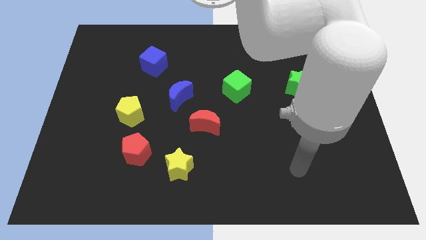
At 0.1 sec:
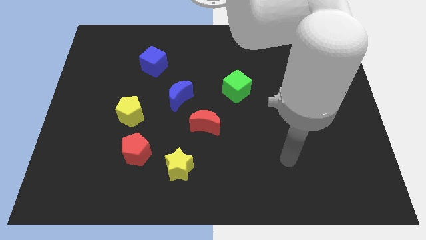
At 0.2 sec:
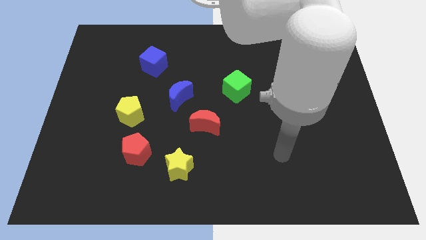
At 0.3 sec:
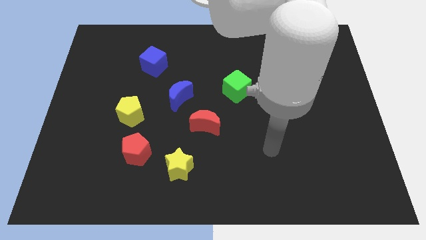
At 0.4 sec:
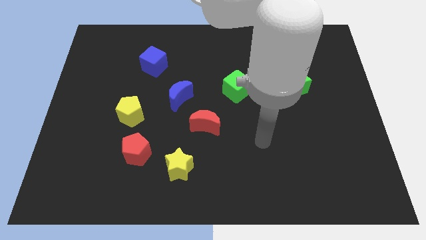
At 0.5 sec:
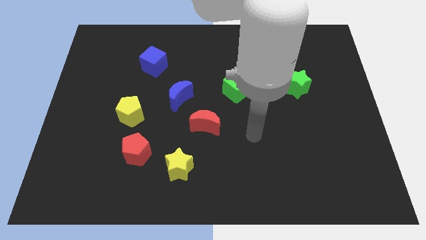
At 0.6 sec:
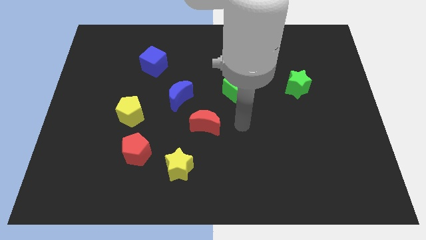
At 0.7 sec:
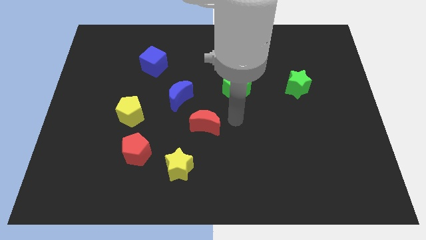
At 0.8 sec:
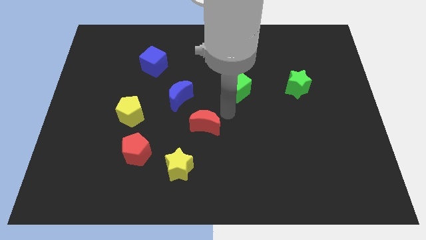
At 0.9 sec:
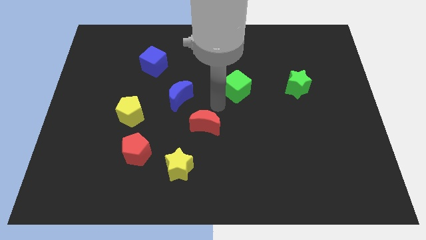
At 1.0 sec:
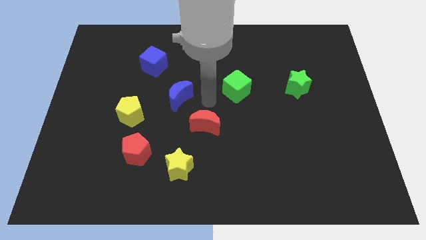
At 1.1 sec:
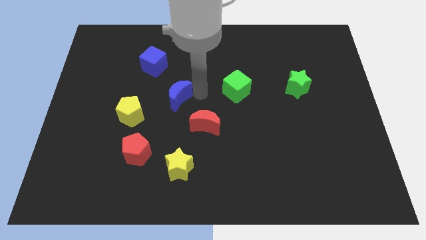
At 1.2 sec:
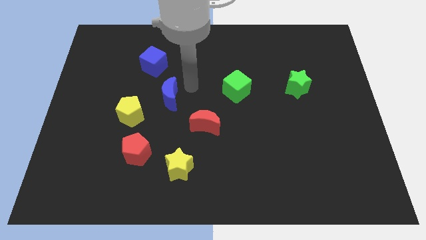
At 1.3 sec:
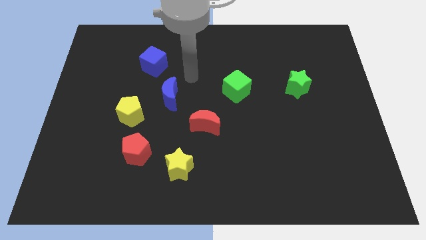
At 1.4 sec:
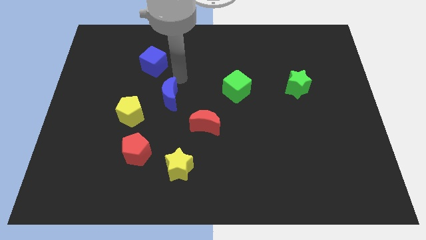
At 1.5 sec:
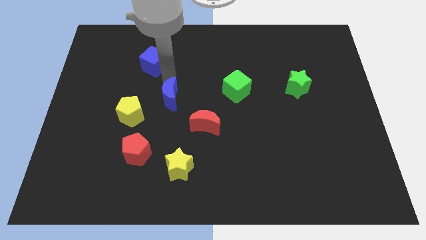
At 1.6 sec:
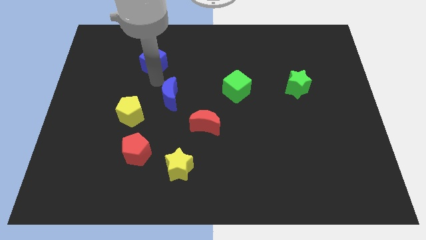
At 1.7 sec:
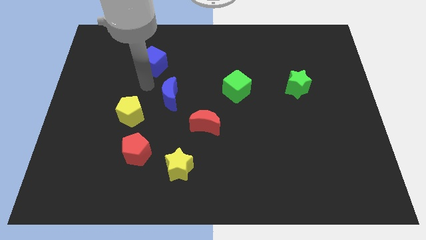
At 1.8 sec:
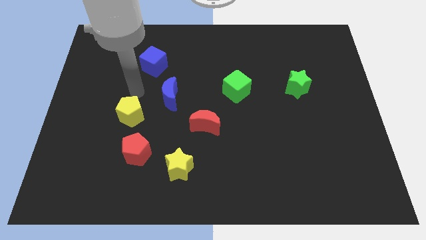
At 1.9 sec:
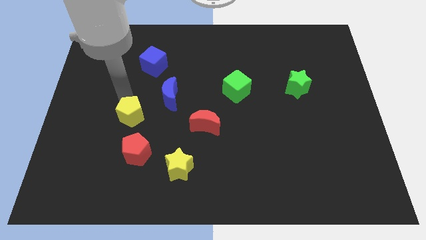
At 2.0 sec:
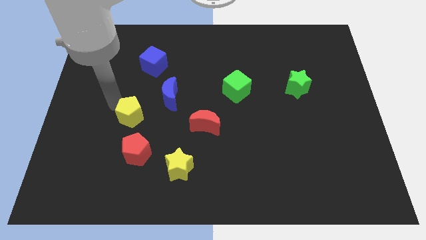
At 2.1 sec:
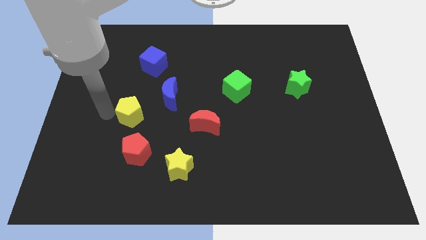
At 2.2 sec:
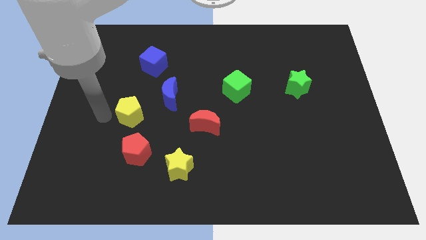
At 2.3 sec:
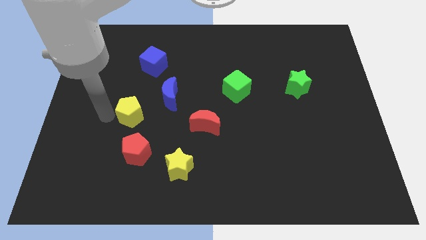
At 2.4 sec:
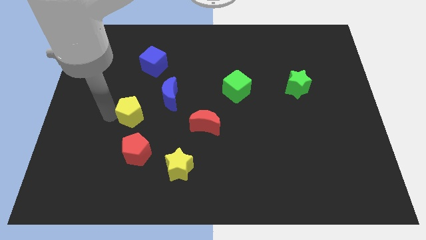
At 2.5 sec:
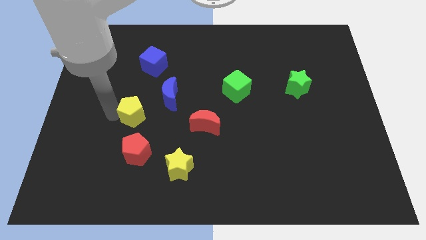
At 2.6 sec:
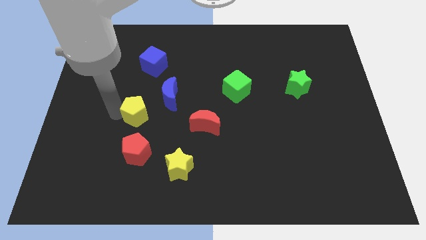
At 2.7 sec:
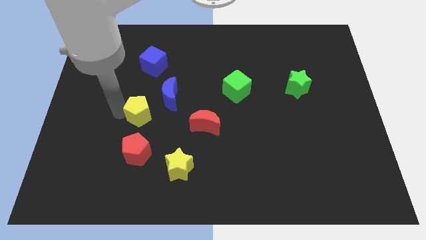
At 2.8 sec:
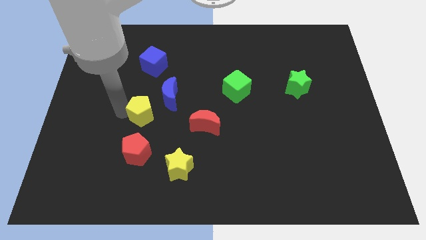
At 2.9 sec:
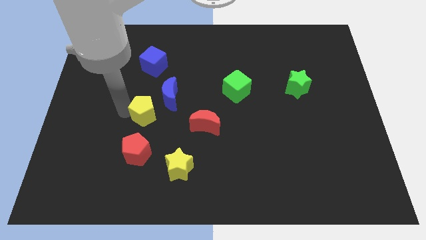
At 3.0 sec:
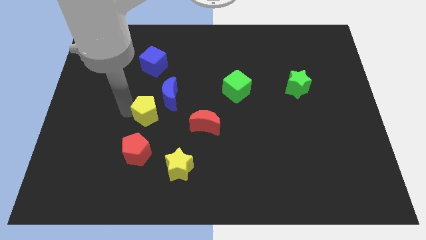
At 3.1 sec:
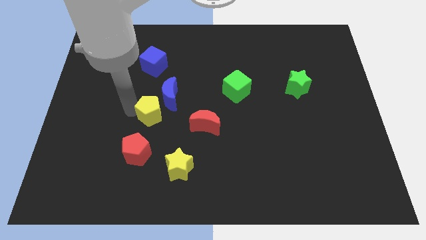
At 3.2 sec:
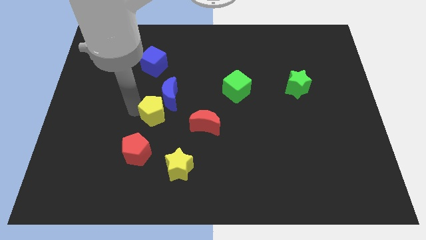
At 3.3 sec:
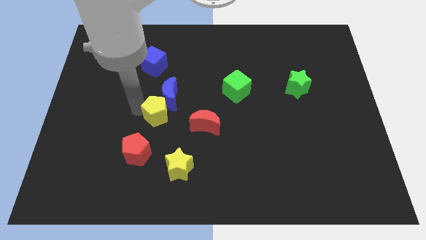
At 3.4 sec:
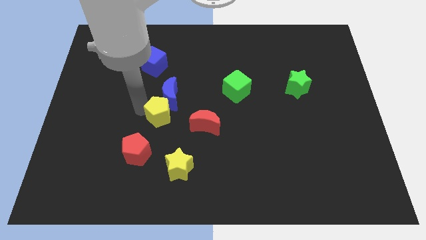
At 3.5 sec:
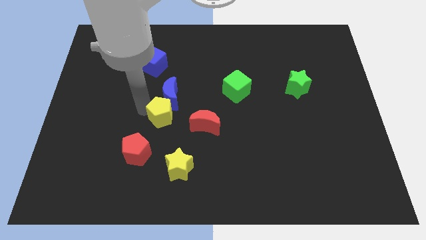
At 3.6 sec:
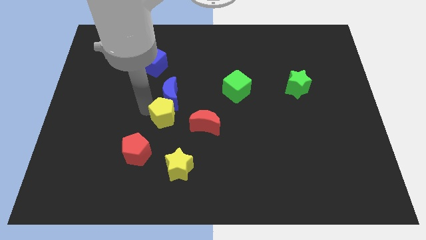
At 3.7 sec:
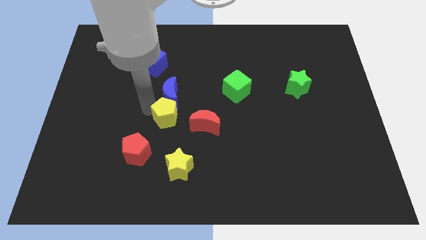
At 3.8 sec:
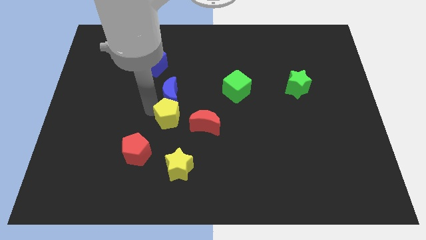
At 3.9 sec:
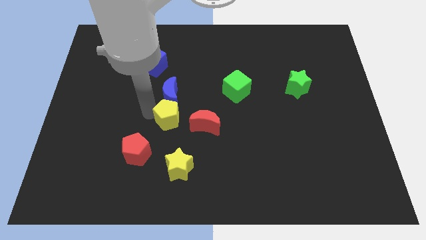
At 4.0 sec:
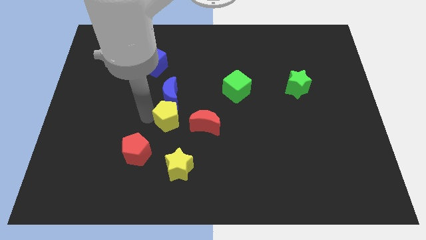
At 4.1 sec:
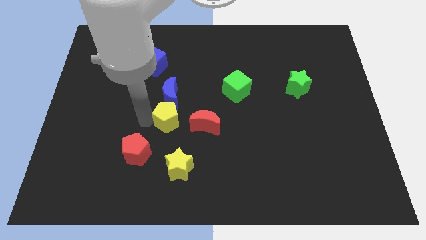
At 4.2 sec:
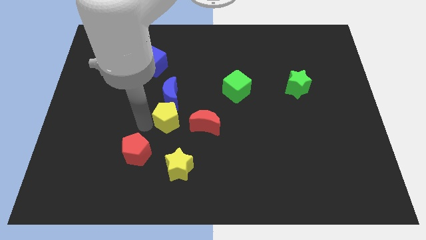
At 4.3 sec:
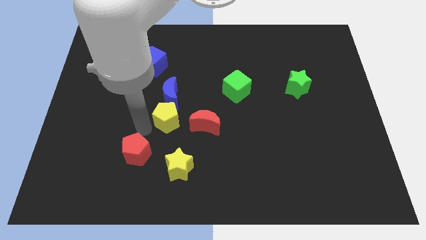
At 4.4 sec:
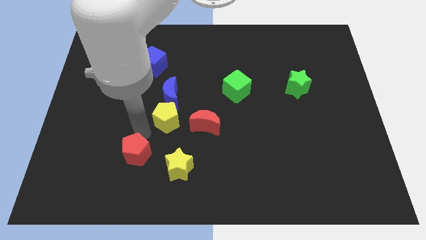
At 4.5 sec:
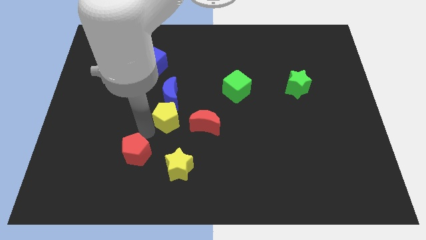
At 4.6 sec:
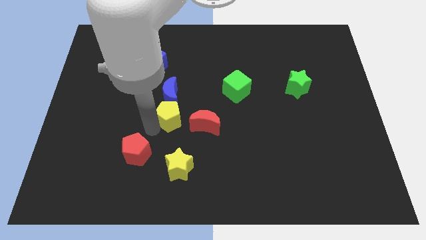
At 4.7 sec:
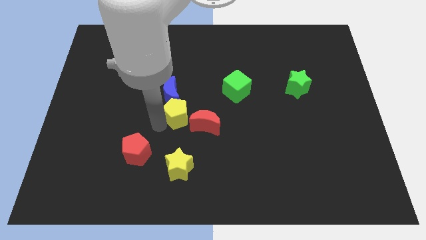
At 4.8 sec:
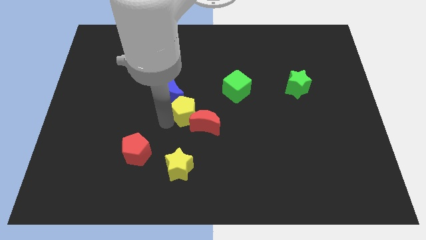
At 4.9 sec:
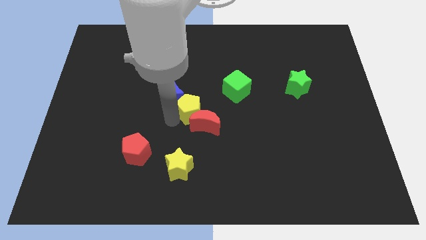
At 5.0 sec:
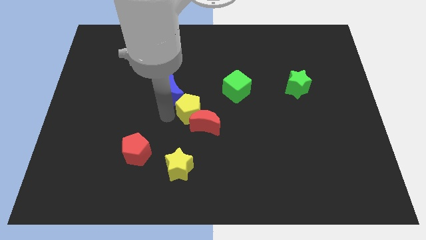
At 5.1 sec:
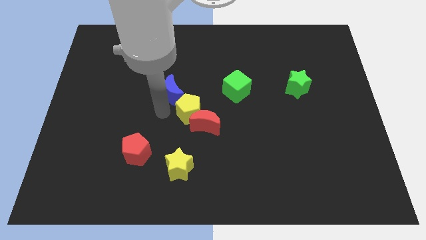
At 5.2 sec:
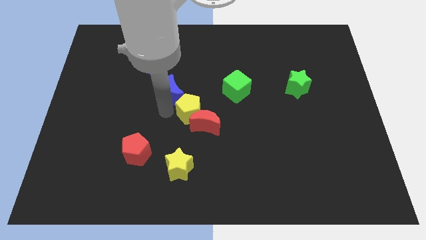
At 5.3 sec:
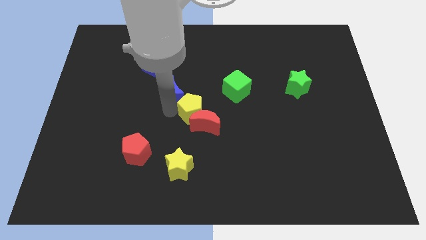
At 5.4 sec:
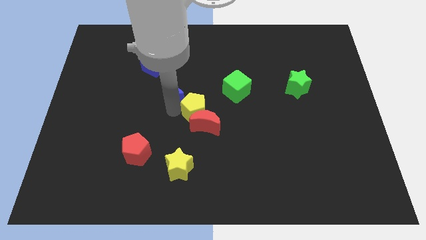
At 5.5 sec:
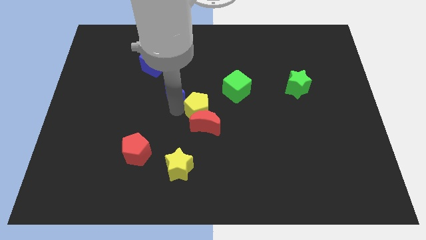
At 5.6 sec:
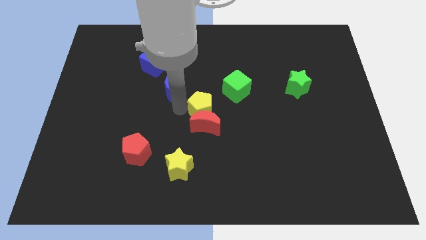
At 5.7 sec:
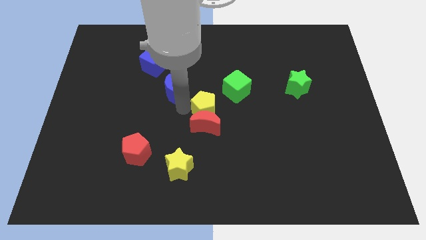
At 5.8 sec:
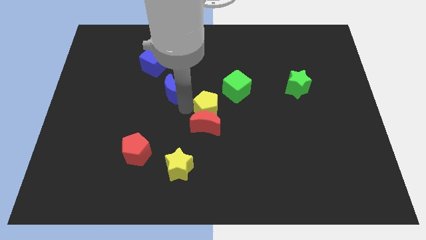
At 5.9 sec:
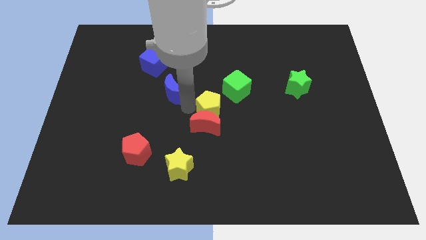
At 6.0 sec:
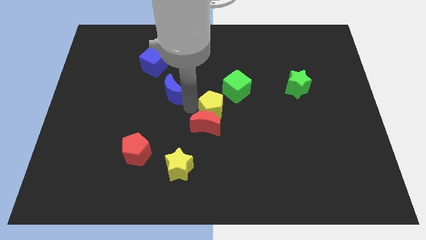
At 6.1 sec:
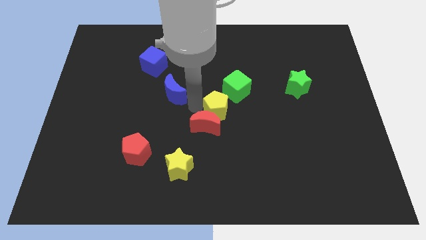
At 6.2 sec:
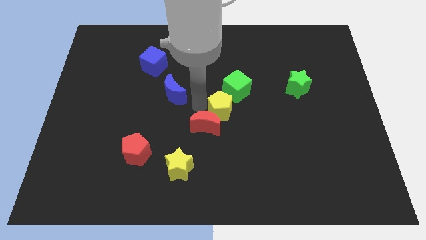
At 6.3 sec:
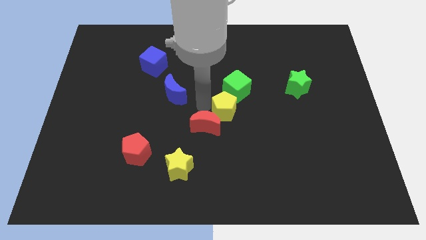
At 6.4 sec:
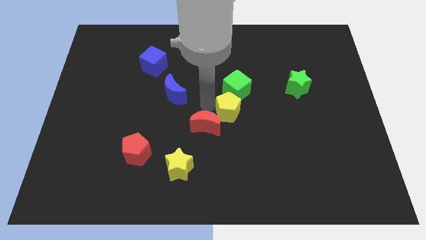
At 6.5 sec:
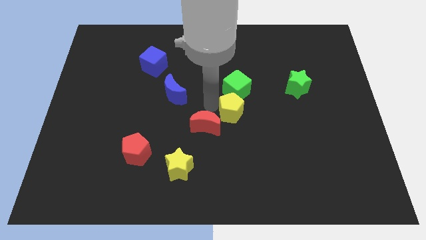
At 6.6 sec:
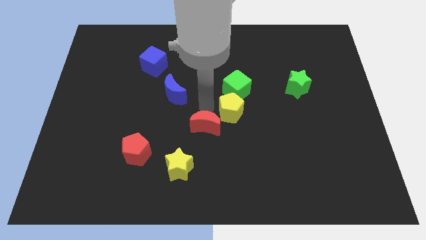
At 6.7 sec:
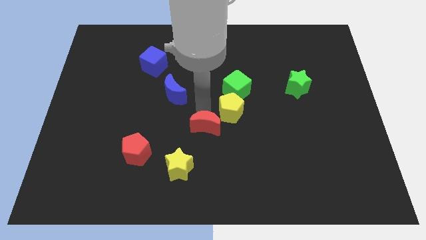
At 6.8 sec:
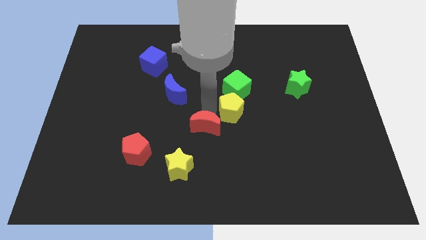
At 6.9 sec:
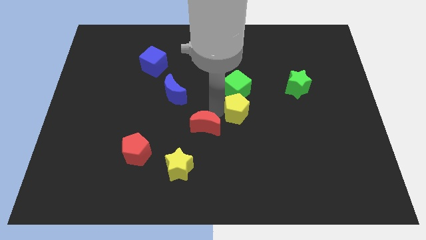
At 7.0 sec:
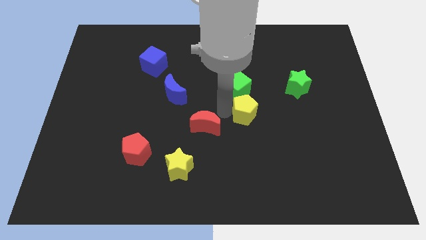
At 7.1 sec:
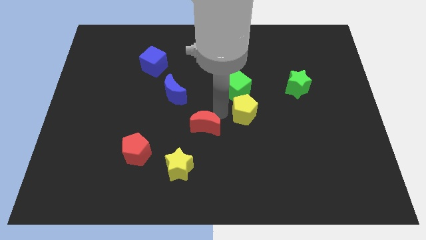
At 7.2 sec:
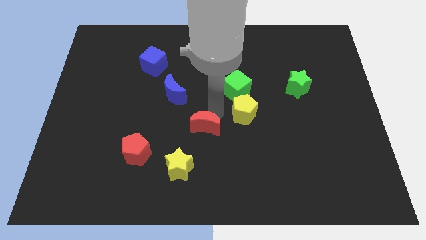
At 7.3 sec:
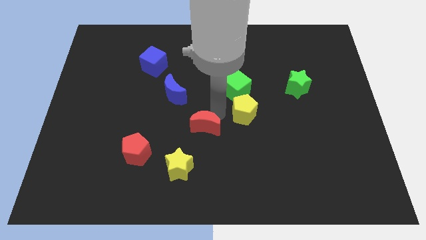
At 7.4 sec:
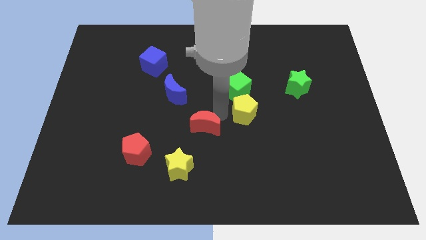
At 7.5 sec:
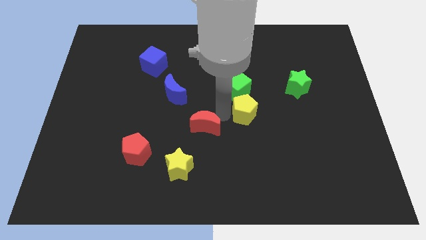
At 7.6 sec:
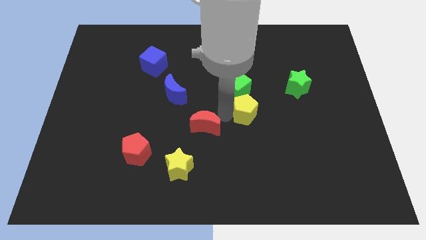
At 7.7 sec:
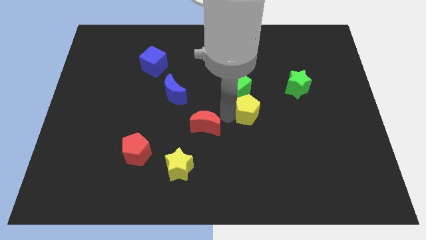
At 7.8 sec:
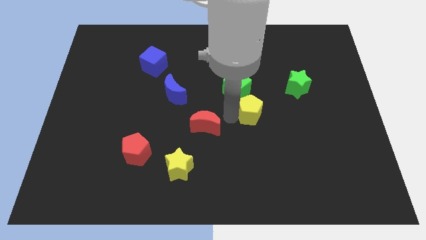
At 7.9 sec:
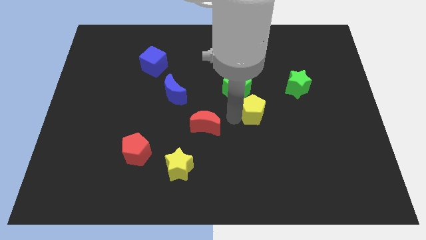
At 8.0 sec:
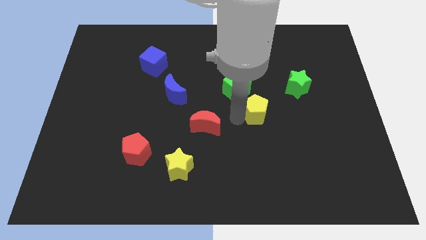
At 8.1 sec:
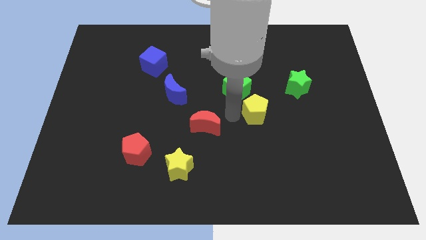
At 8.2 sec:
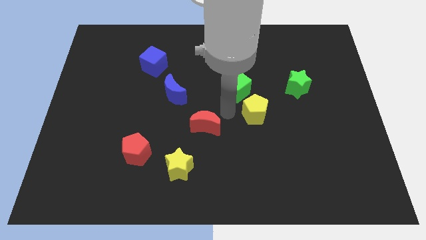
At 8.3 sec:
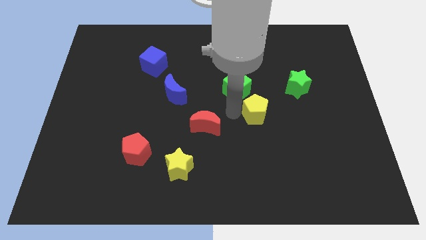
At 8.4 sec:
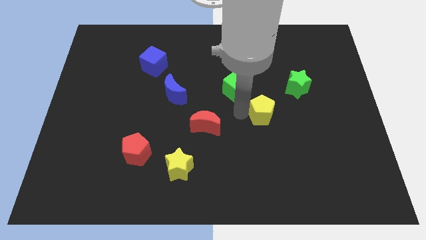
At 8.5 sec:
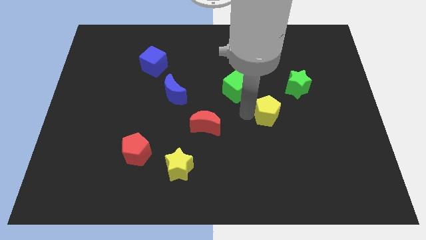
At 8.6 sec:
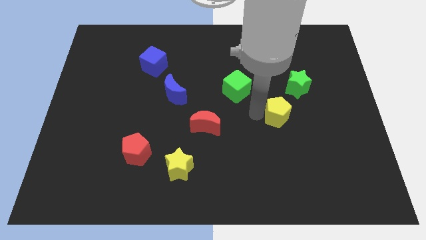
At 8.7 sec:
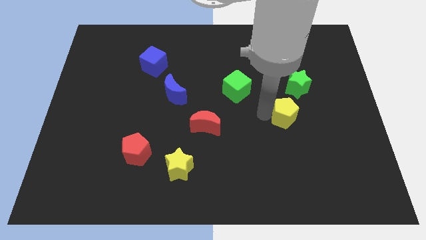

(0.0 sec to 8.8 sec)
move the yellow pentagon to the bottom side of the green star
